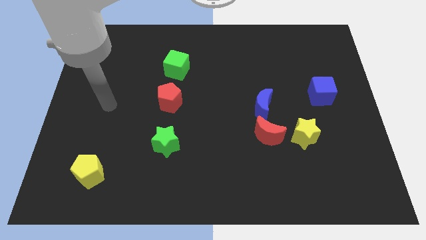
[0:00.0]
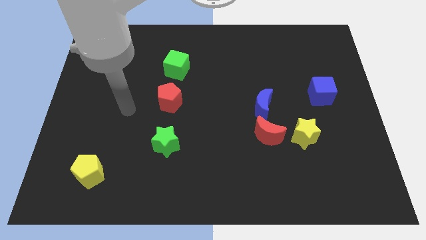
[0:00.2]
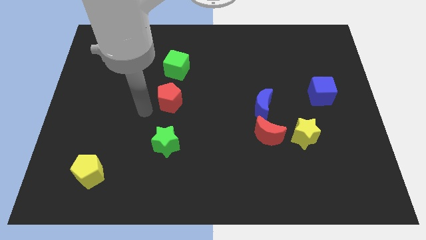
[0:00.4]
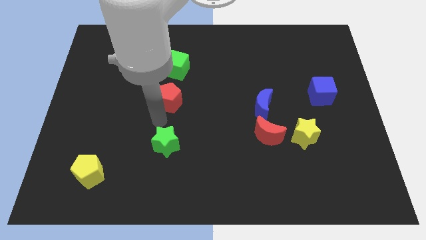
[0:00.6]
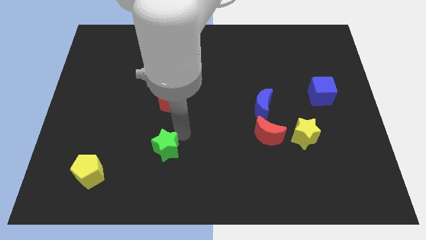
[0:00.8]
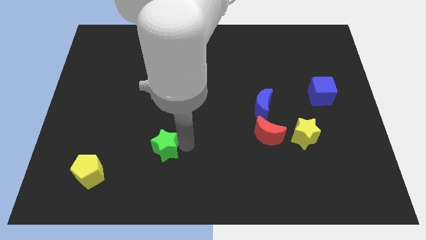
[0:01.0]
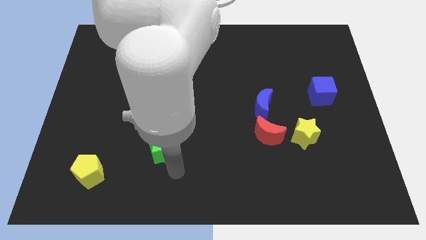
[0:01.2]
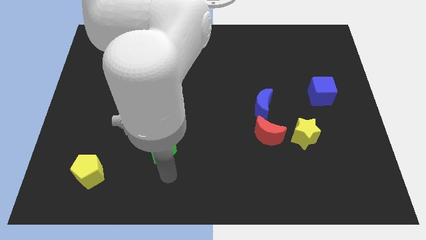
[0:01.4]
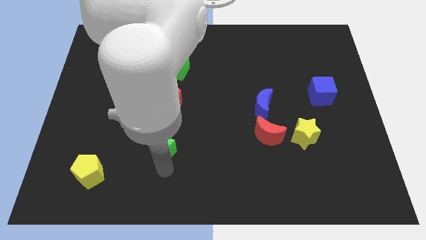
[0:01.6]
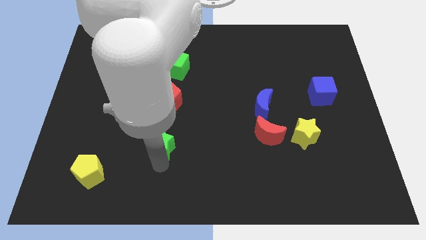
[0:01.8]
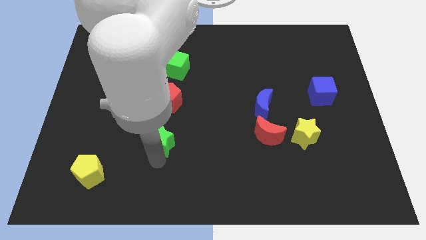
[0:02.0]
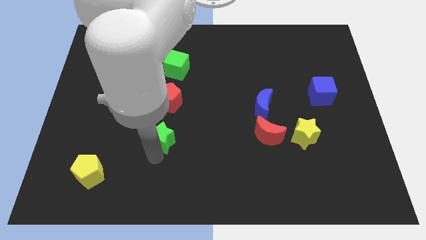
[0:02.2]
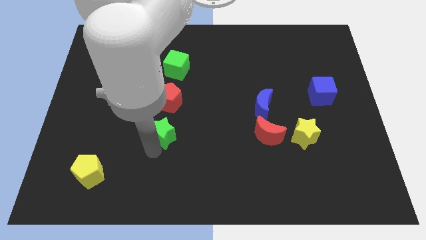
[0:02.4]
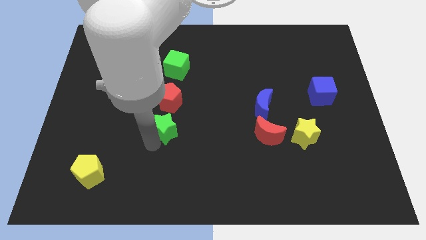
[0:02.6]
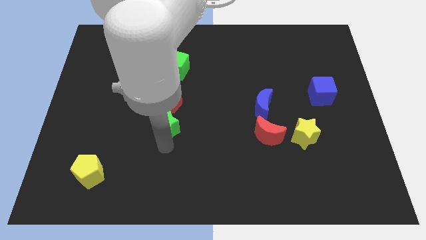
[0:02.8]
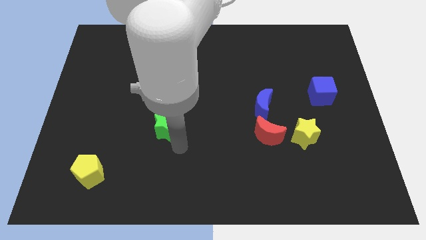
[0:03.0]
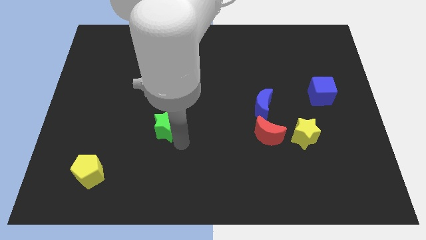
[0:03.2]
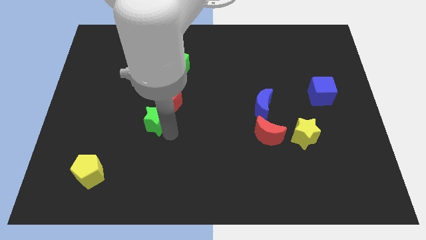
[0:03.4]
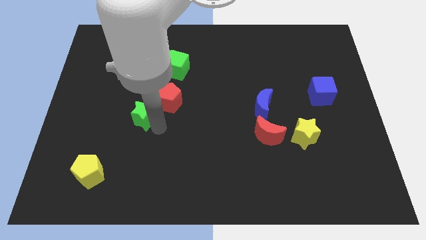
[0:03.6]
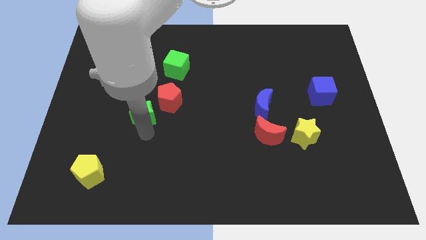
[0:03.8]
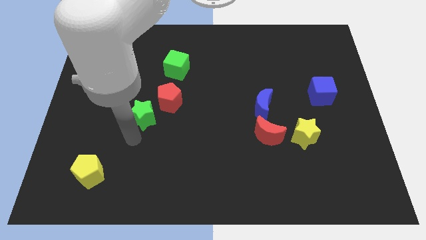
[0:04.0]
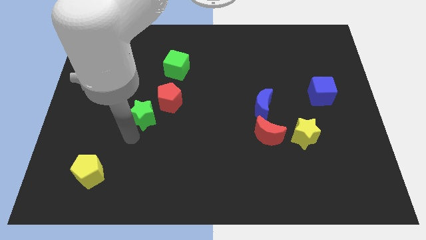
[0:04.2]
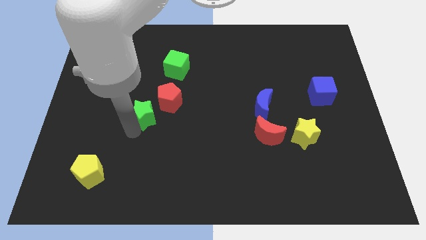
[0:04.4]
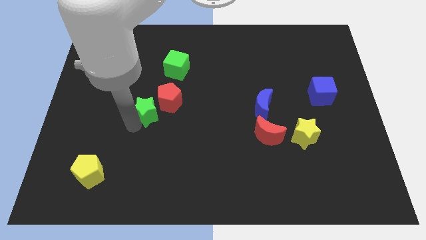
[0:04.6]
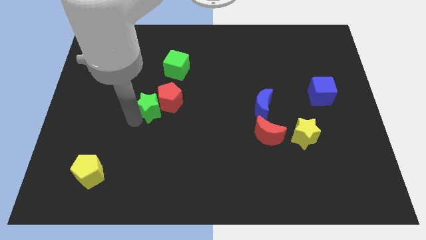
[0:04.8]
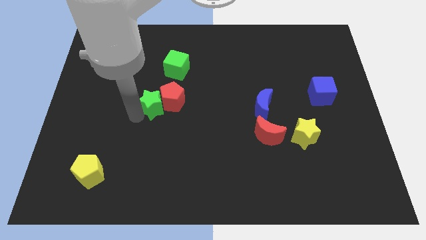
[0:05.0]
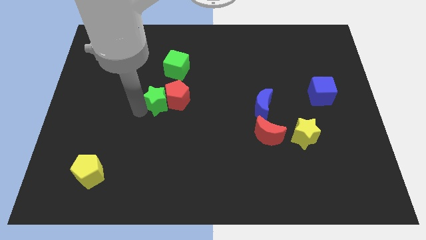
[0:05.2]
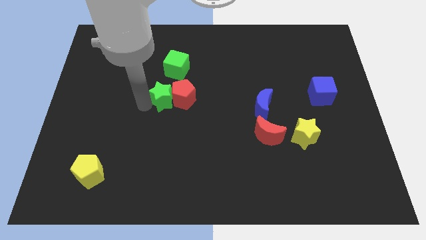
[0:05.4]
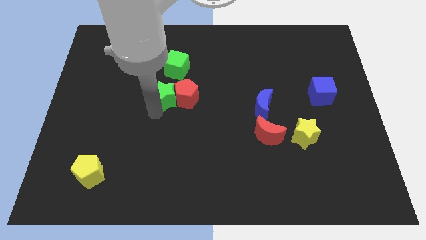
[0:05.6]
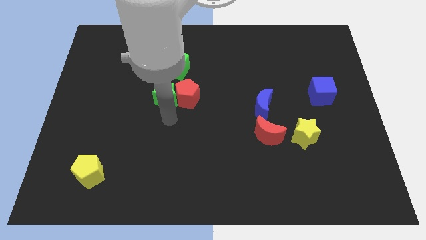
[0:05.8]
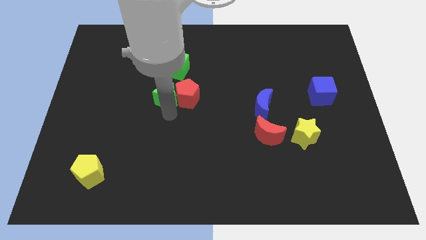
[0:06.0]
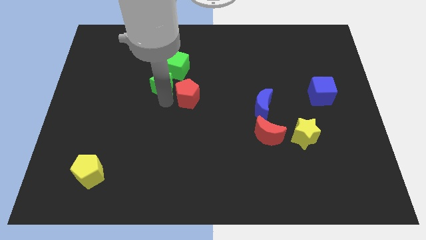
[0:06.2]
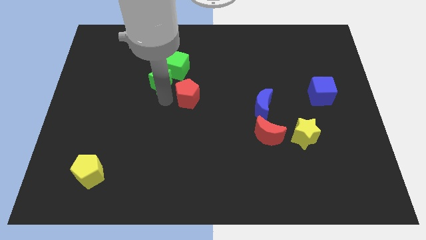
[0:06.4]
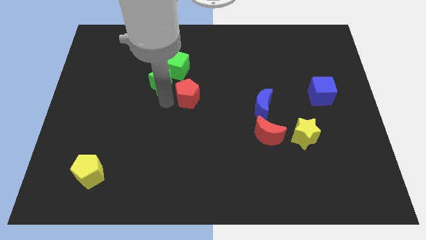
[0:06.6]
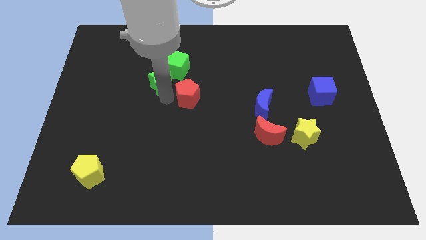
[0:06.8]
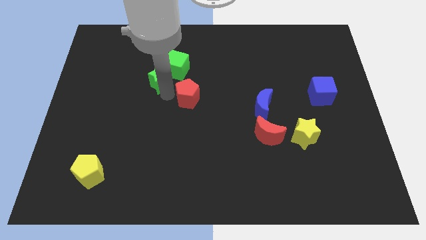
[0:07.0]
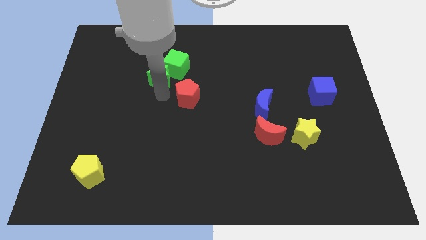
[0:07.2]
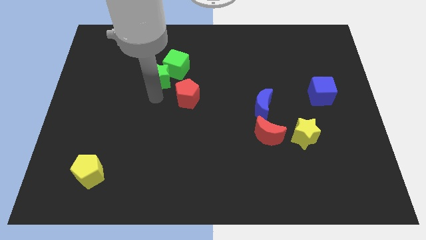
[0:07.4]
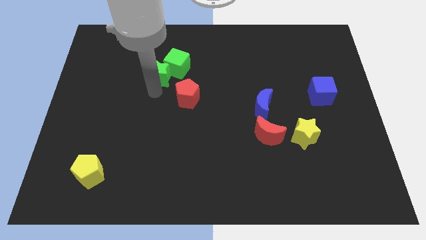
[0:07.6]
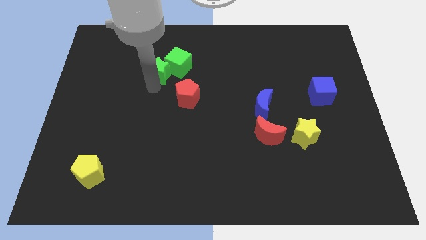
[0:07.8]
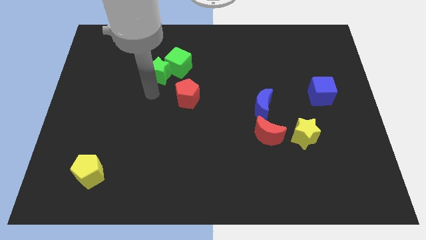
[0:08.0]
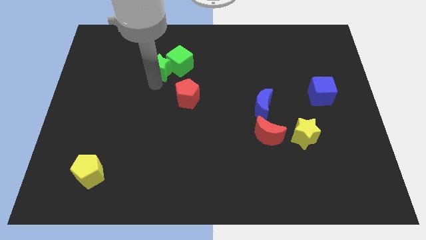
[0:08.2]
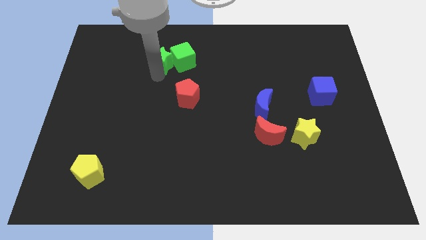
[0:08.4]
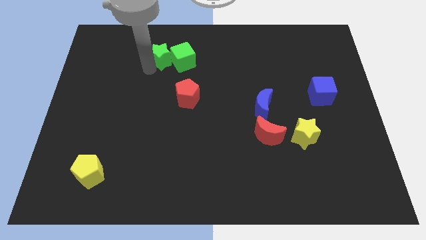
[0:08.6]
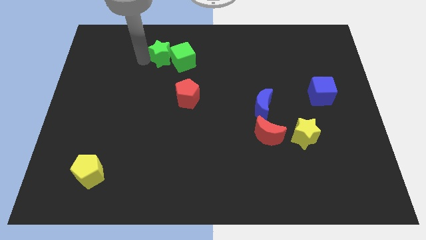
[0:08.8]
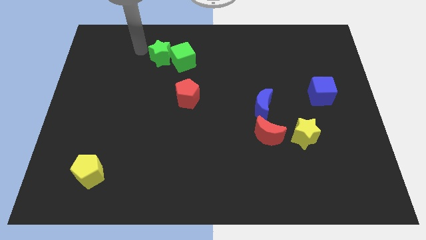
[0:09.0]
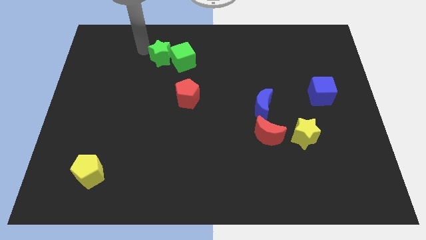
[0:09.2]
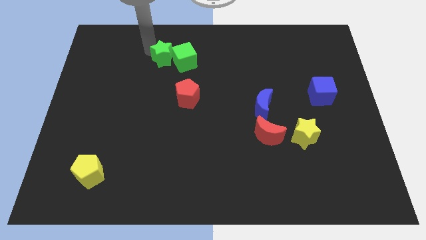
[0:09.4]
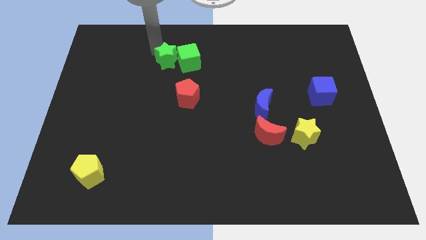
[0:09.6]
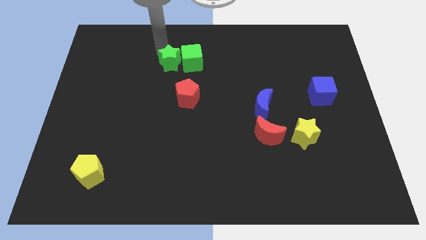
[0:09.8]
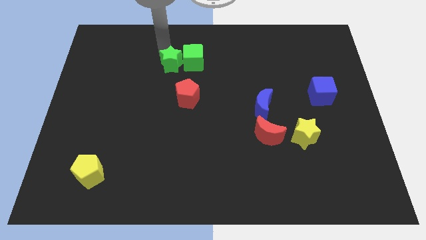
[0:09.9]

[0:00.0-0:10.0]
push the green star to the top of the red pentagon

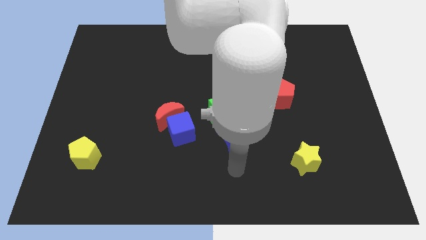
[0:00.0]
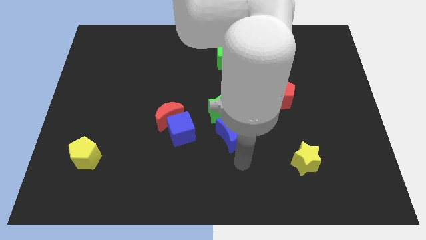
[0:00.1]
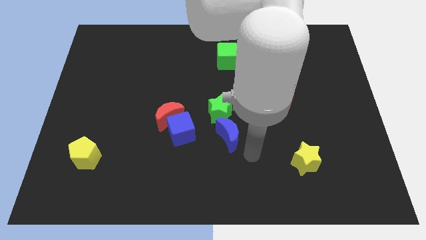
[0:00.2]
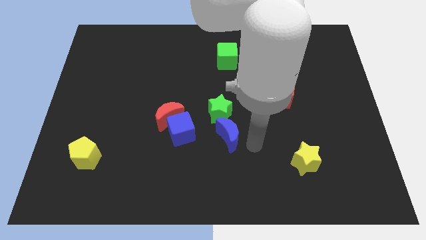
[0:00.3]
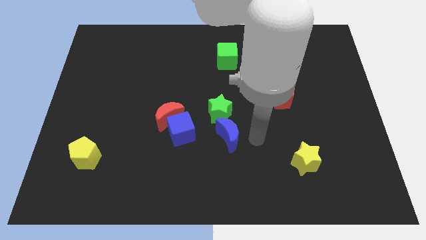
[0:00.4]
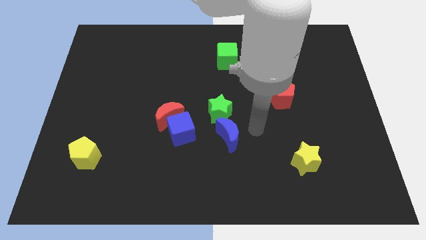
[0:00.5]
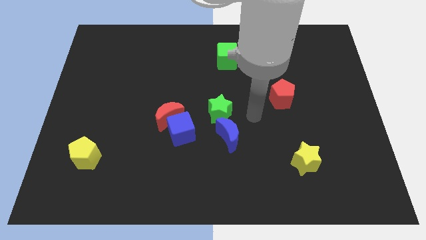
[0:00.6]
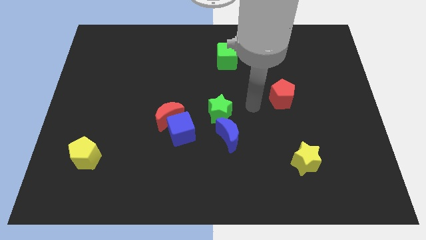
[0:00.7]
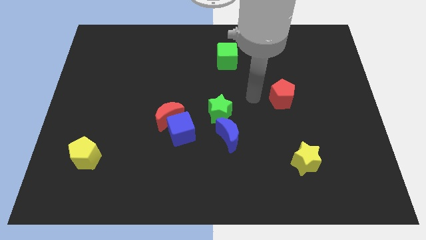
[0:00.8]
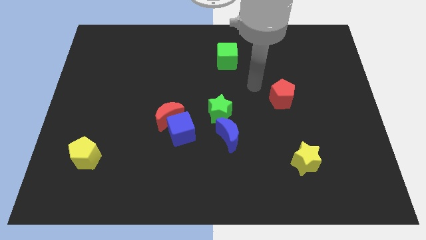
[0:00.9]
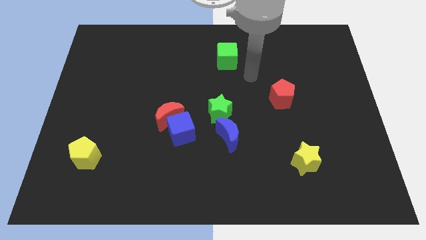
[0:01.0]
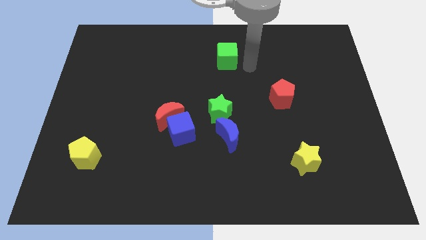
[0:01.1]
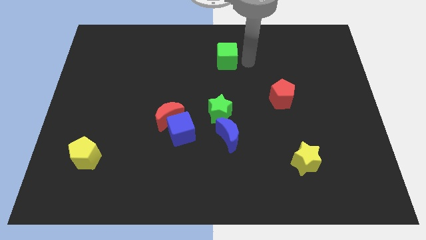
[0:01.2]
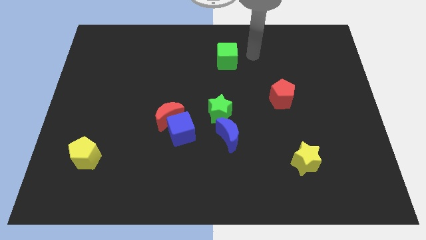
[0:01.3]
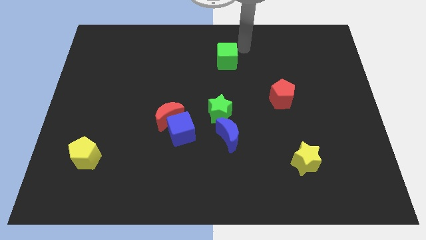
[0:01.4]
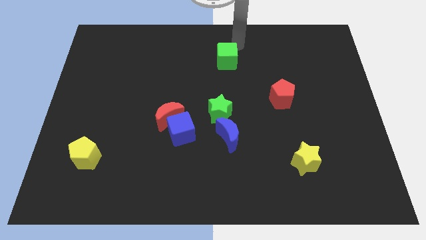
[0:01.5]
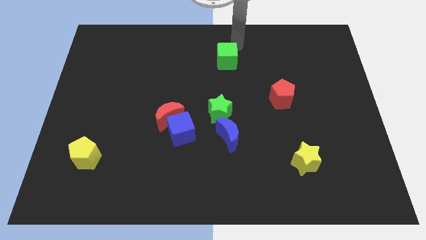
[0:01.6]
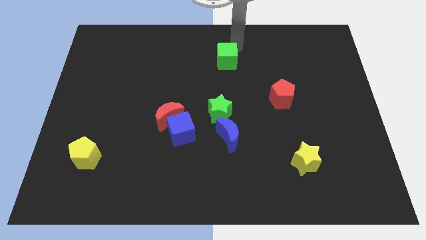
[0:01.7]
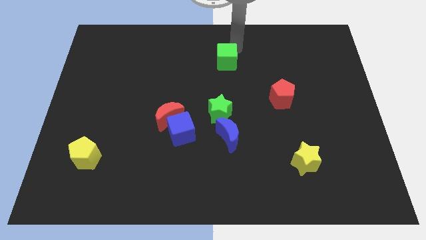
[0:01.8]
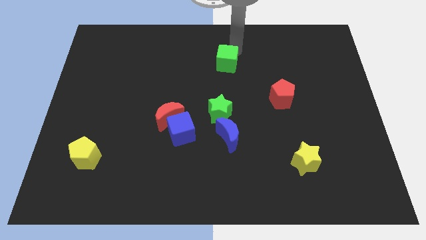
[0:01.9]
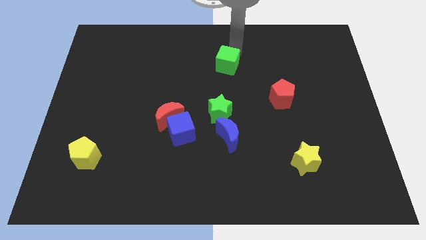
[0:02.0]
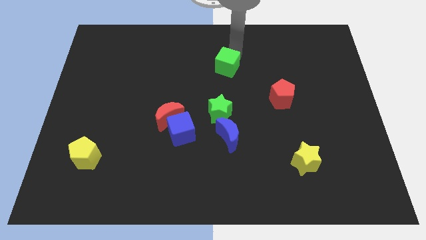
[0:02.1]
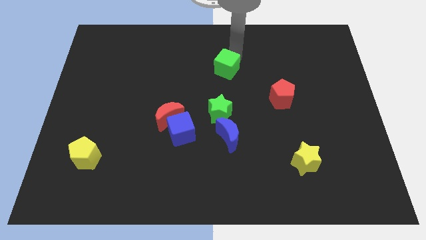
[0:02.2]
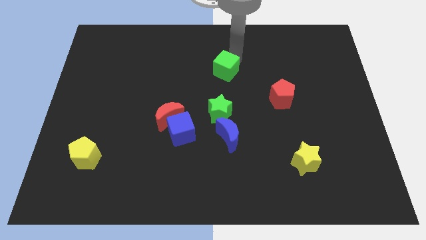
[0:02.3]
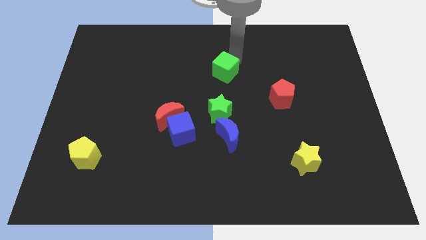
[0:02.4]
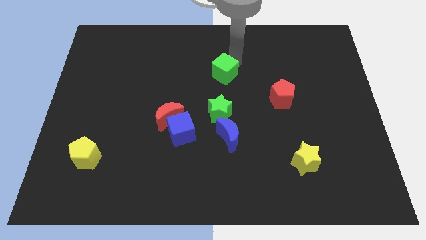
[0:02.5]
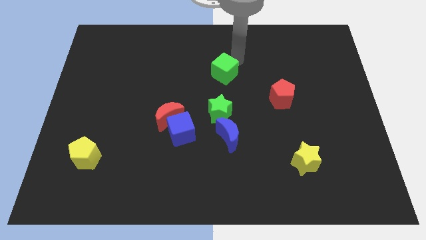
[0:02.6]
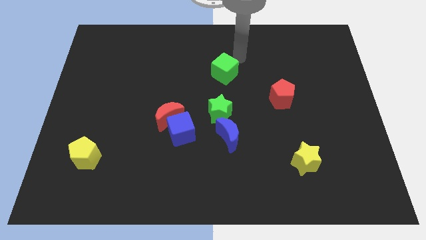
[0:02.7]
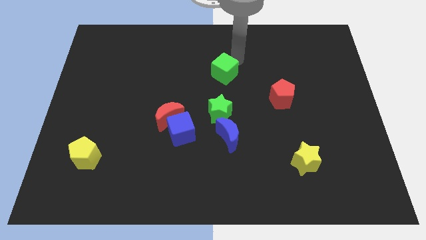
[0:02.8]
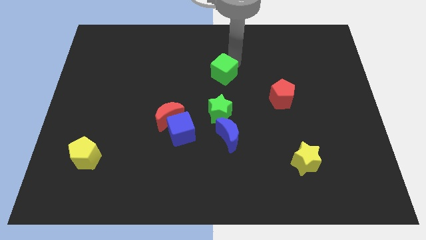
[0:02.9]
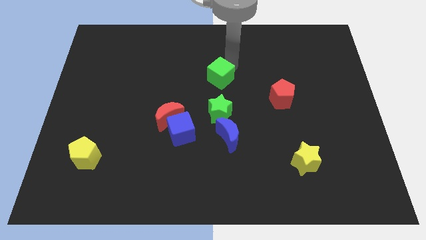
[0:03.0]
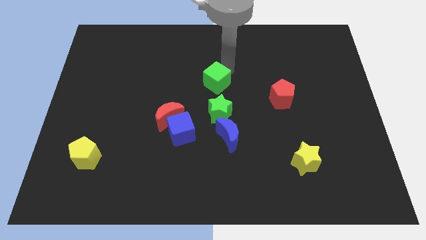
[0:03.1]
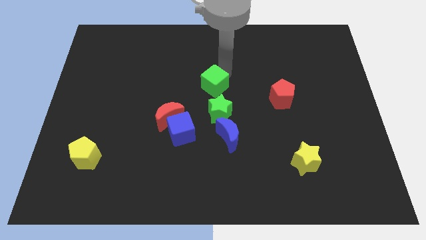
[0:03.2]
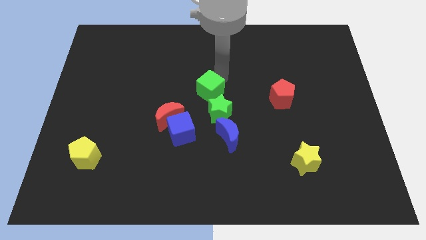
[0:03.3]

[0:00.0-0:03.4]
push the green cube diagonally up and to the right of the red moon
